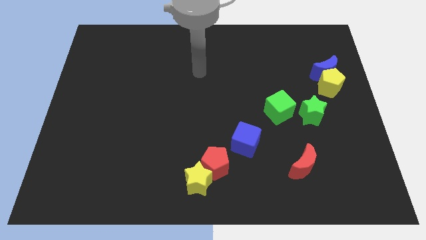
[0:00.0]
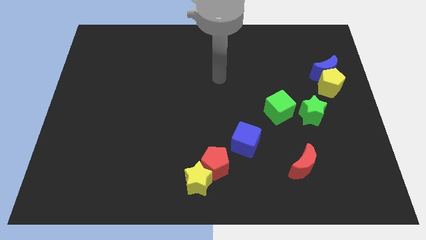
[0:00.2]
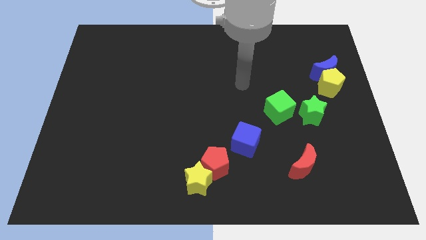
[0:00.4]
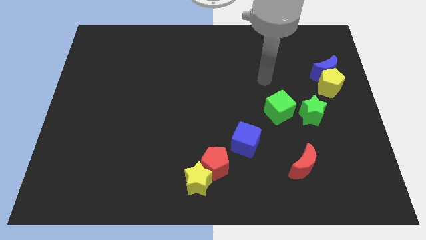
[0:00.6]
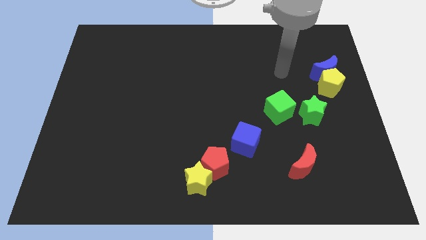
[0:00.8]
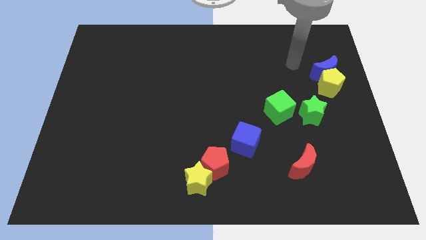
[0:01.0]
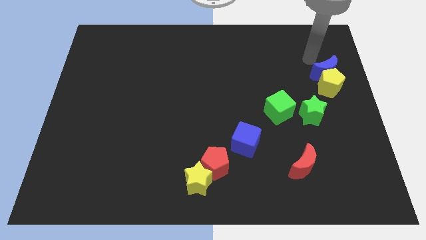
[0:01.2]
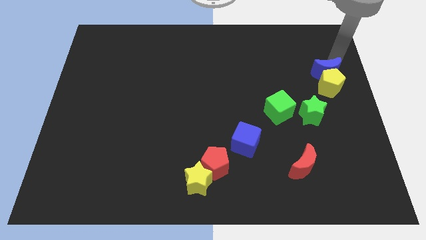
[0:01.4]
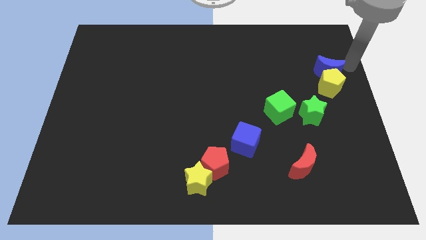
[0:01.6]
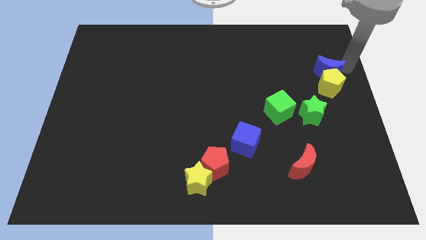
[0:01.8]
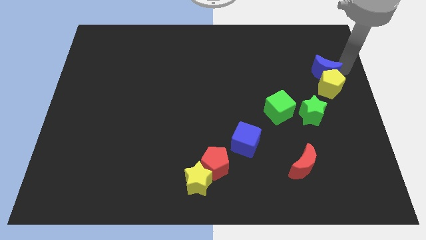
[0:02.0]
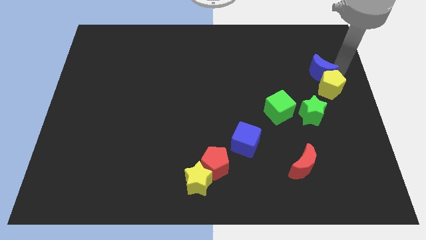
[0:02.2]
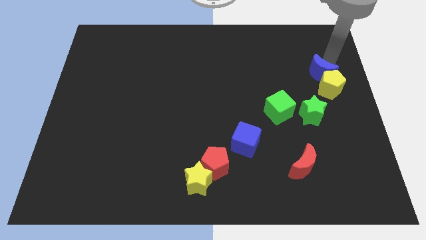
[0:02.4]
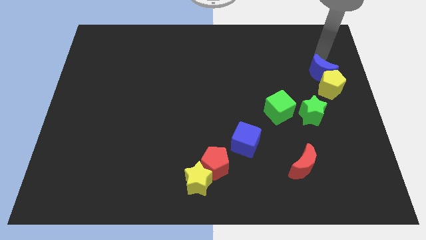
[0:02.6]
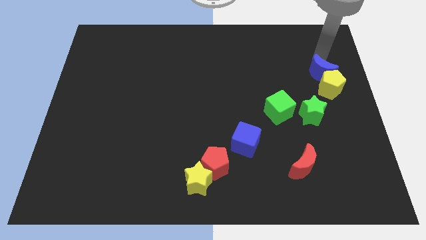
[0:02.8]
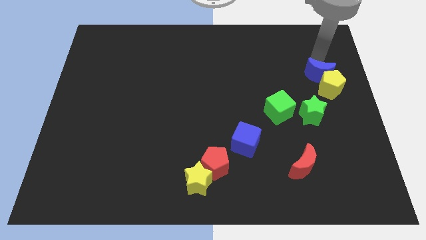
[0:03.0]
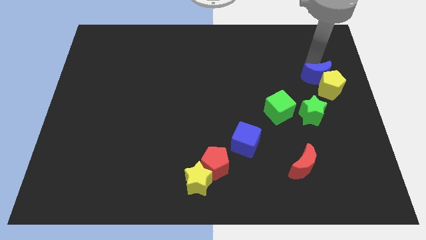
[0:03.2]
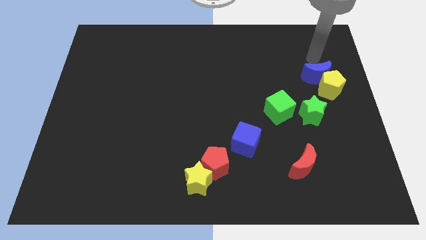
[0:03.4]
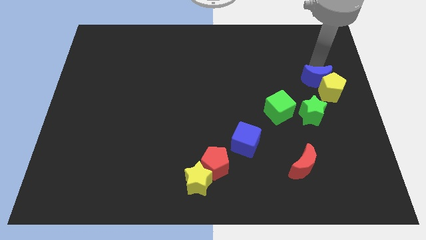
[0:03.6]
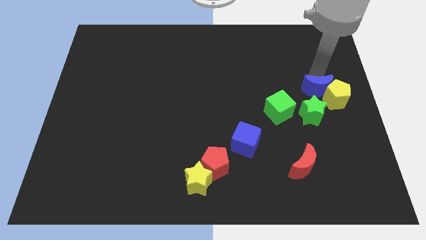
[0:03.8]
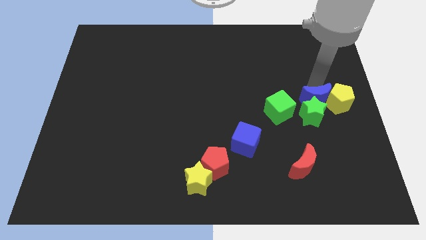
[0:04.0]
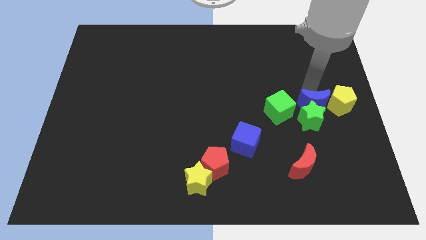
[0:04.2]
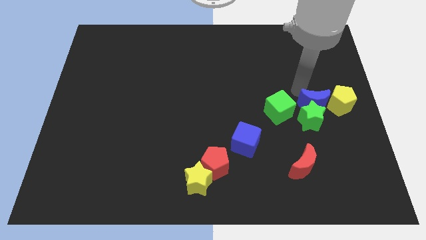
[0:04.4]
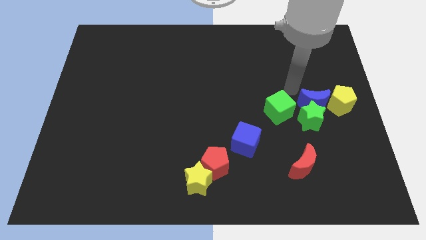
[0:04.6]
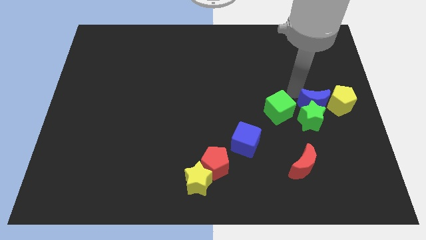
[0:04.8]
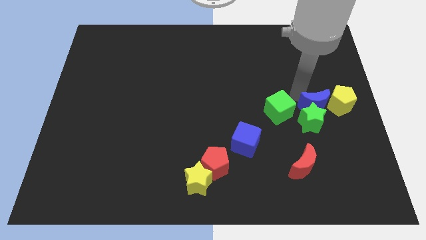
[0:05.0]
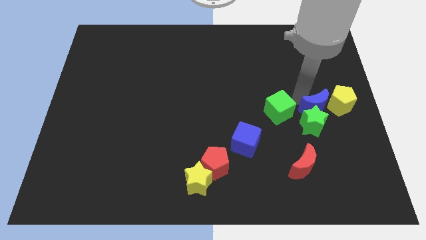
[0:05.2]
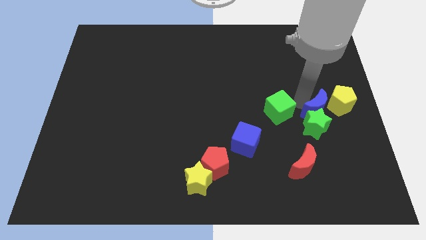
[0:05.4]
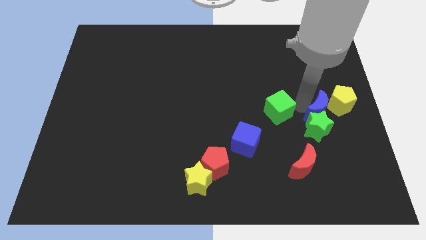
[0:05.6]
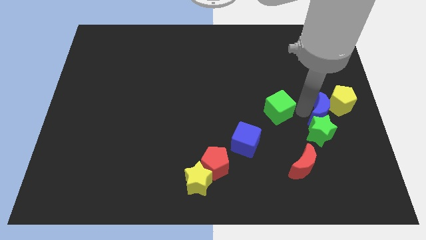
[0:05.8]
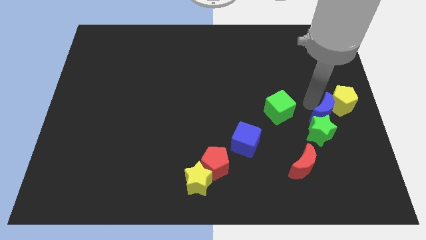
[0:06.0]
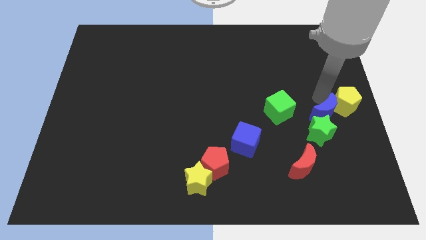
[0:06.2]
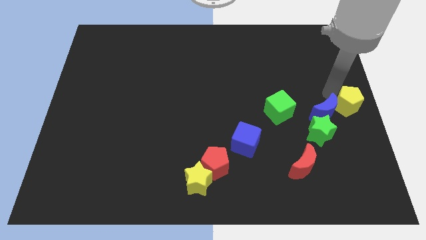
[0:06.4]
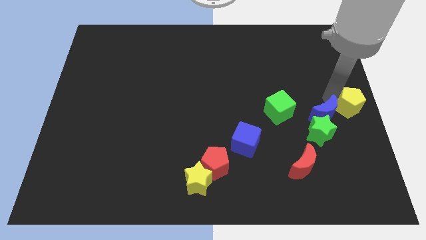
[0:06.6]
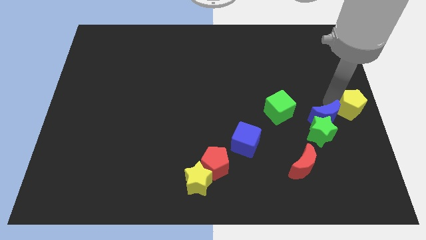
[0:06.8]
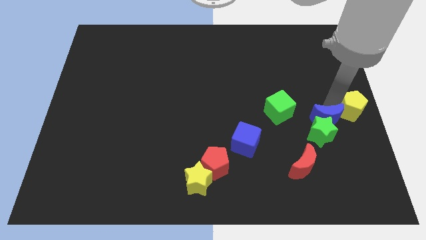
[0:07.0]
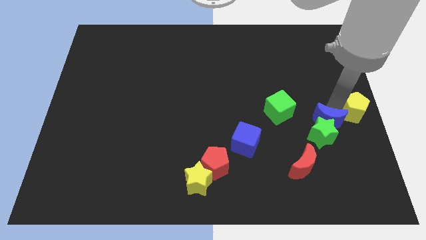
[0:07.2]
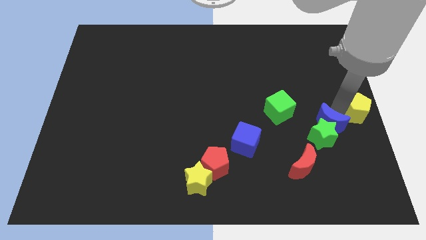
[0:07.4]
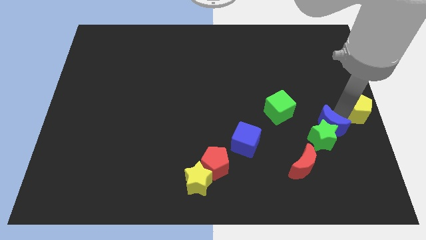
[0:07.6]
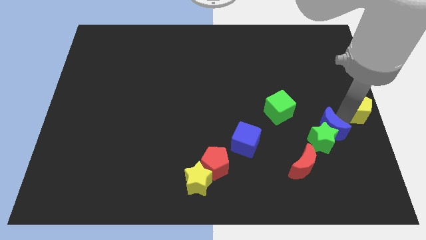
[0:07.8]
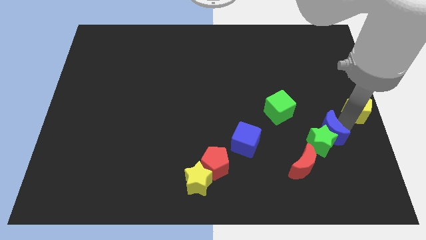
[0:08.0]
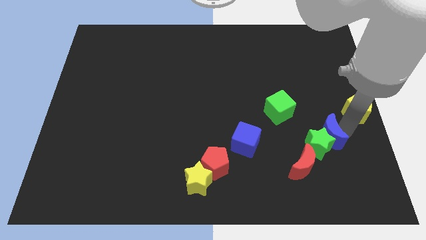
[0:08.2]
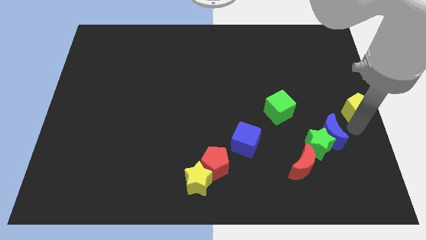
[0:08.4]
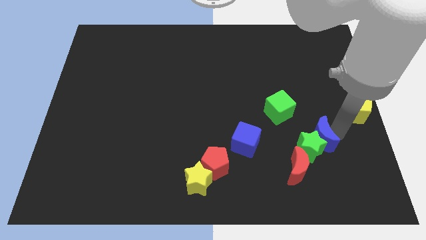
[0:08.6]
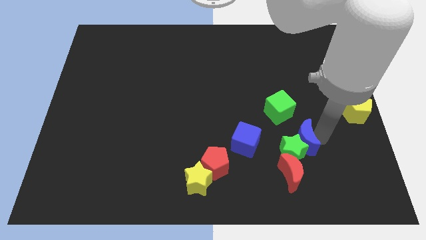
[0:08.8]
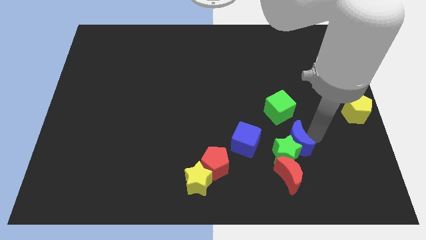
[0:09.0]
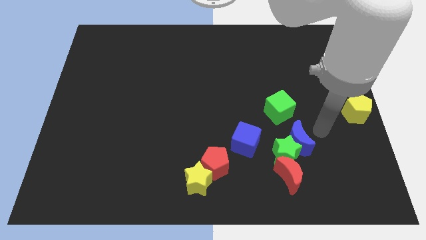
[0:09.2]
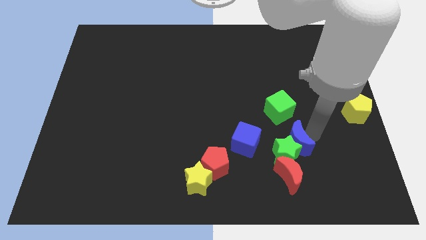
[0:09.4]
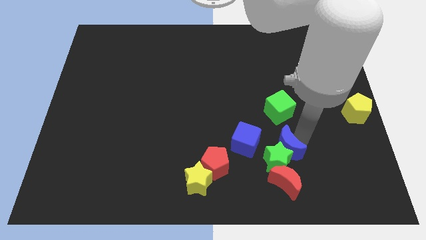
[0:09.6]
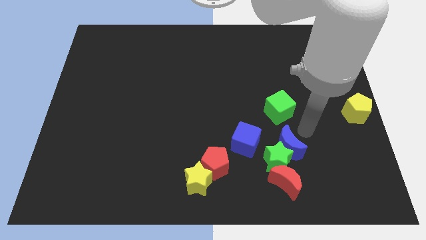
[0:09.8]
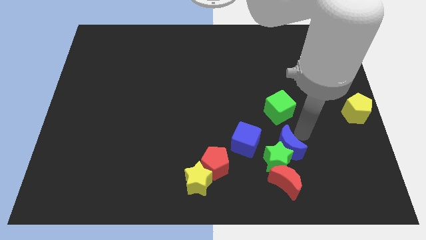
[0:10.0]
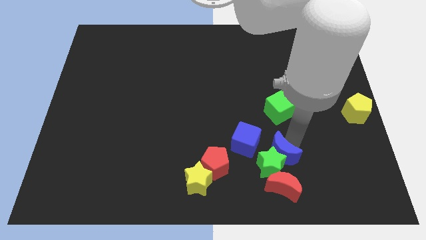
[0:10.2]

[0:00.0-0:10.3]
put the blue moon to the bottom right side of the blue cube

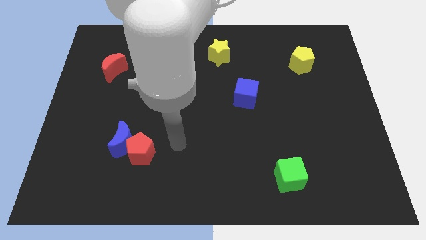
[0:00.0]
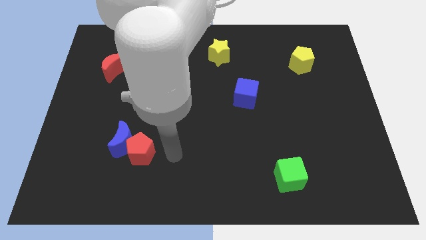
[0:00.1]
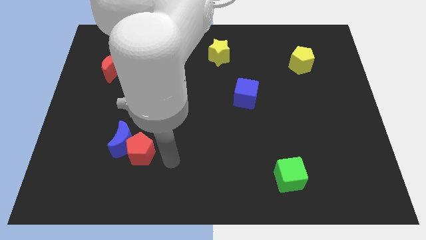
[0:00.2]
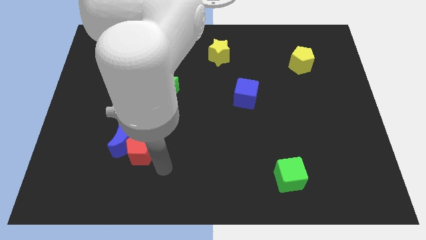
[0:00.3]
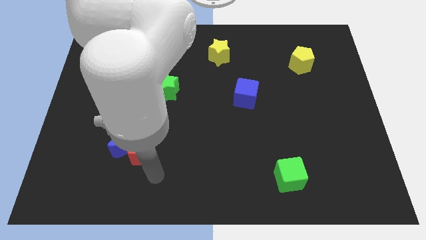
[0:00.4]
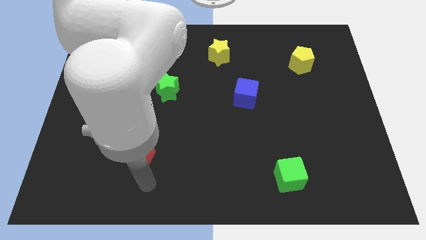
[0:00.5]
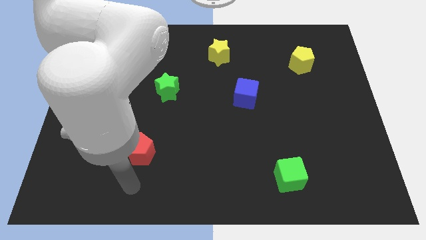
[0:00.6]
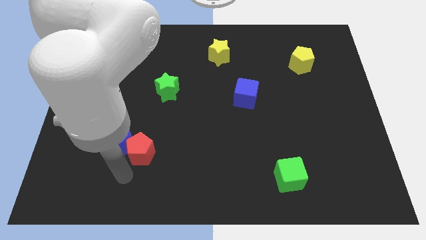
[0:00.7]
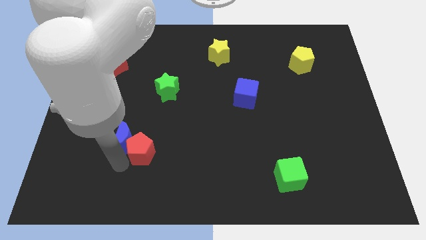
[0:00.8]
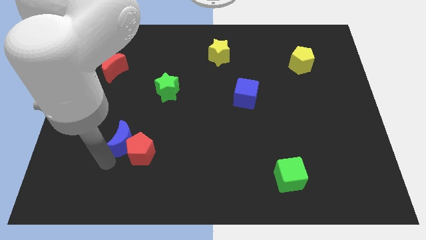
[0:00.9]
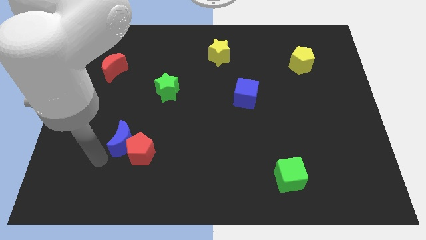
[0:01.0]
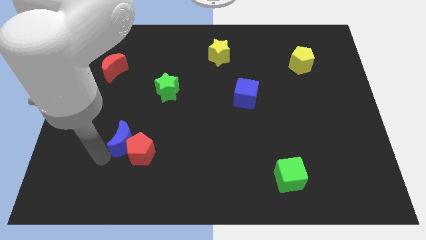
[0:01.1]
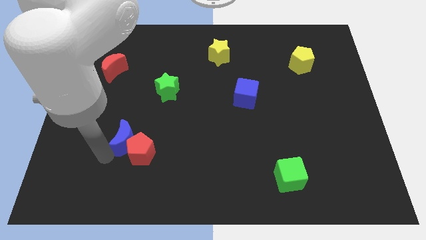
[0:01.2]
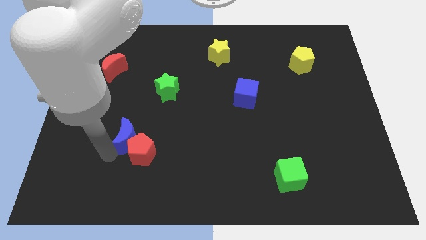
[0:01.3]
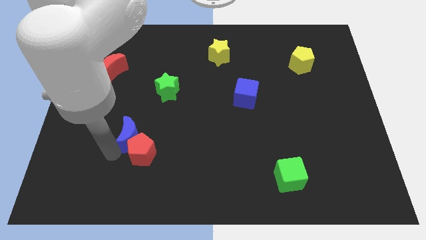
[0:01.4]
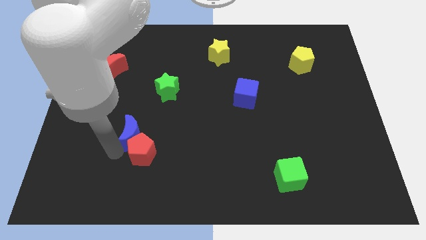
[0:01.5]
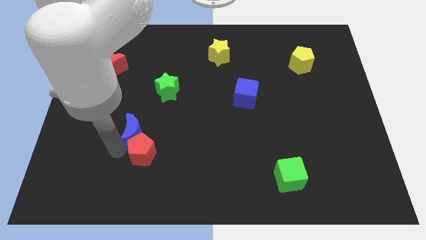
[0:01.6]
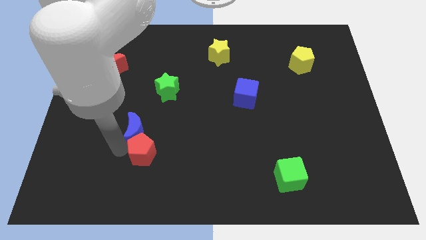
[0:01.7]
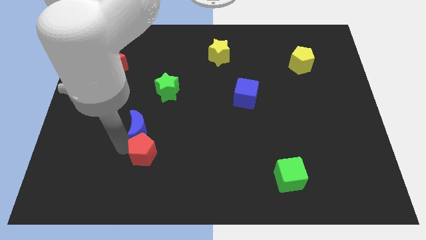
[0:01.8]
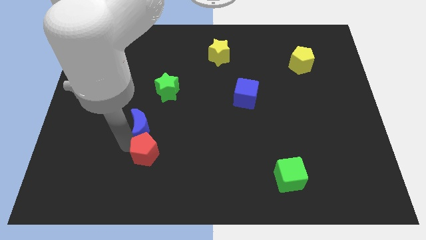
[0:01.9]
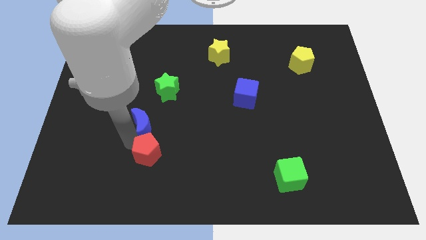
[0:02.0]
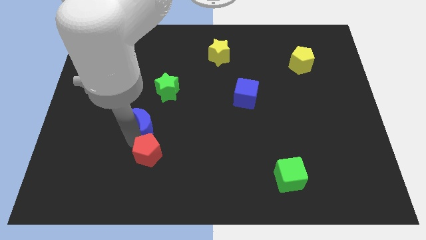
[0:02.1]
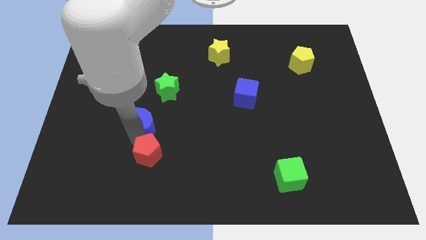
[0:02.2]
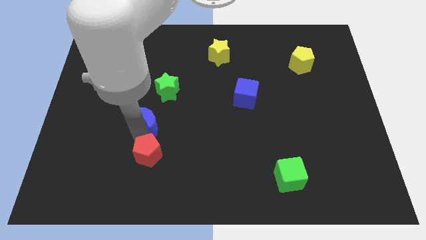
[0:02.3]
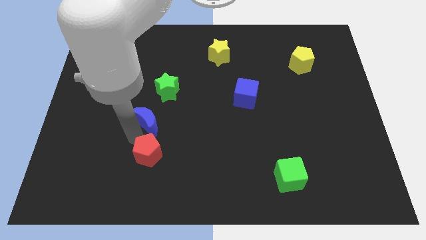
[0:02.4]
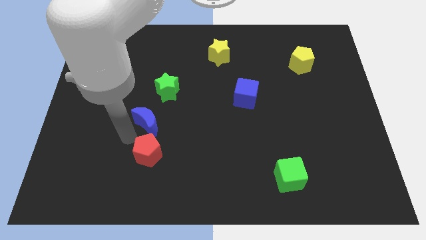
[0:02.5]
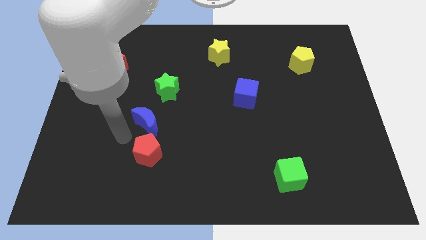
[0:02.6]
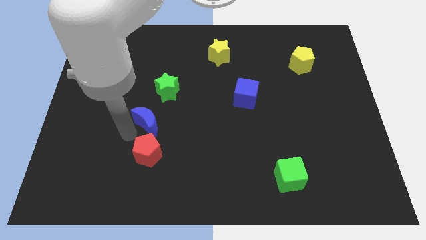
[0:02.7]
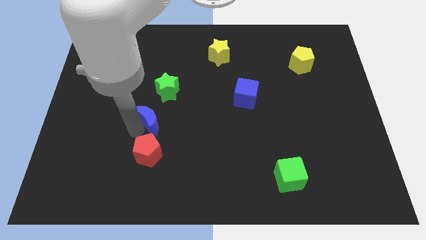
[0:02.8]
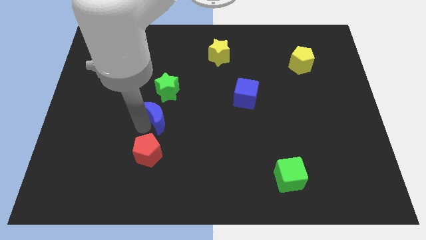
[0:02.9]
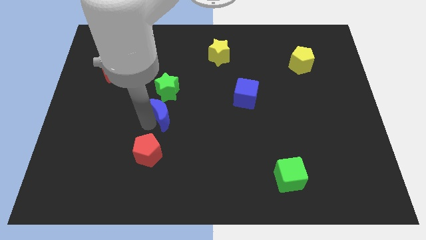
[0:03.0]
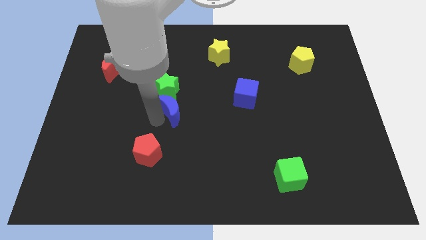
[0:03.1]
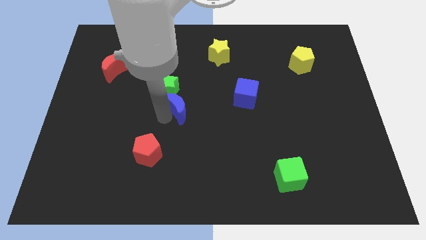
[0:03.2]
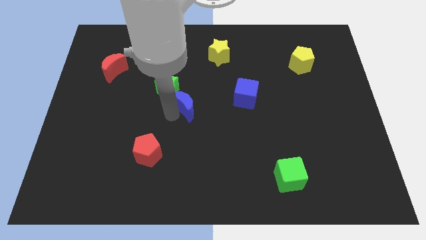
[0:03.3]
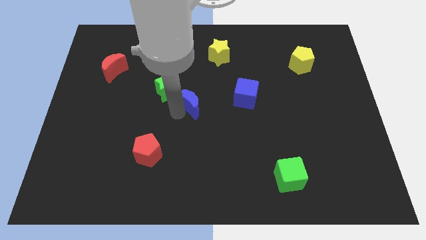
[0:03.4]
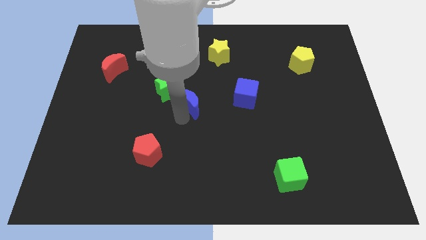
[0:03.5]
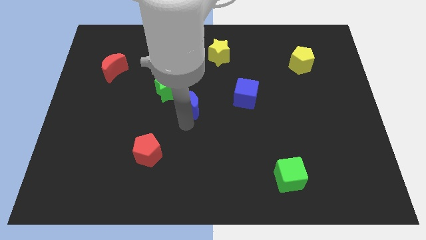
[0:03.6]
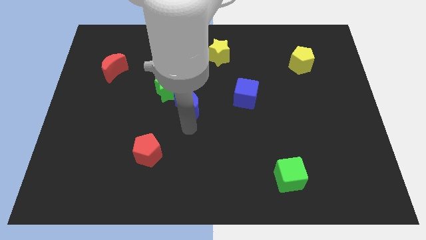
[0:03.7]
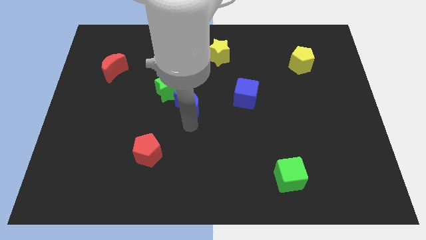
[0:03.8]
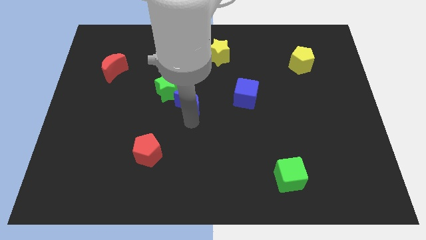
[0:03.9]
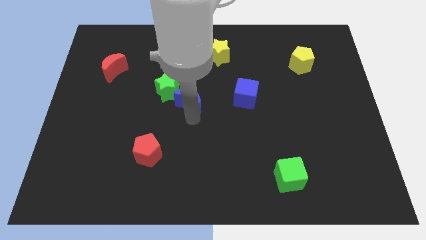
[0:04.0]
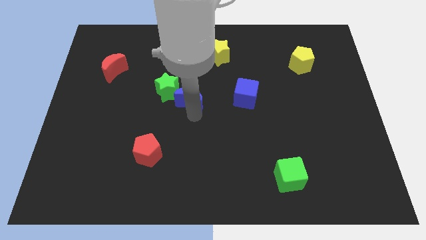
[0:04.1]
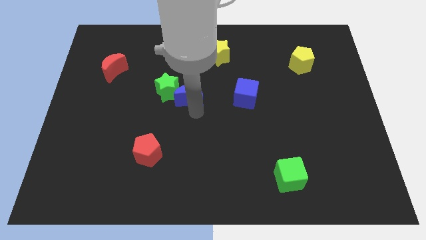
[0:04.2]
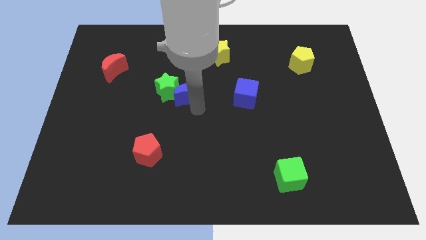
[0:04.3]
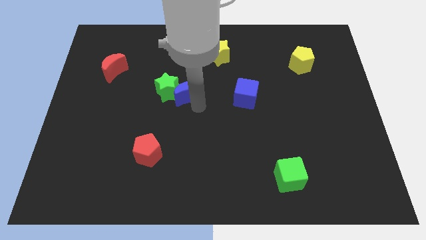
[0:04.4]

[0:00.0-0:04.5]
slide the blue moon to the top right of the green star
